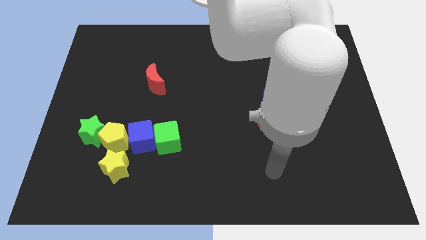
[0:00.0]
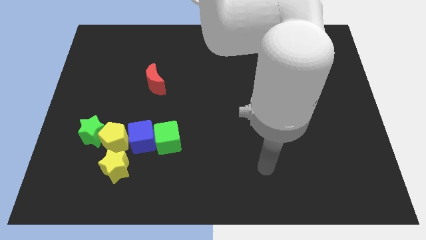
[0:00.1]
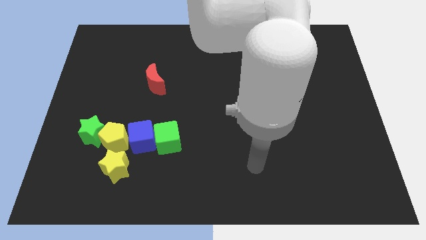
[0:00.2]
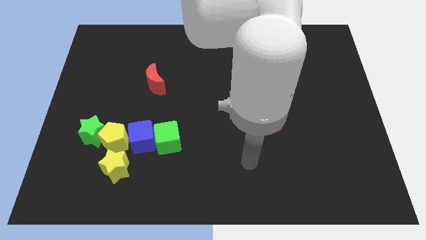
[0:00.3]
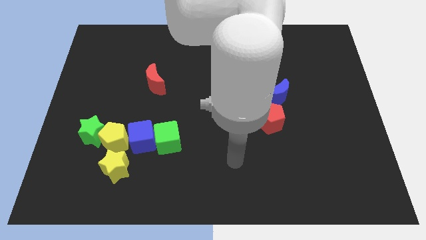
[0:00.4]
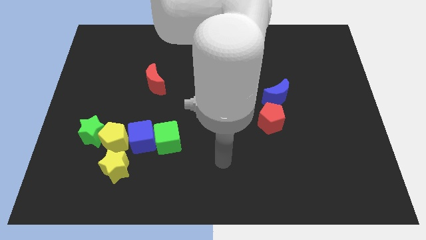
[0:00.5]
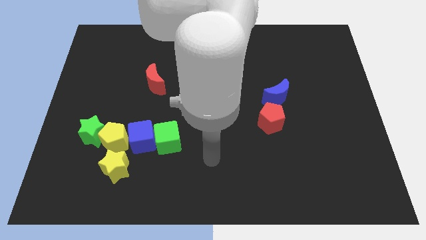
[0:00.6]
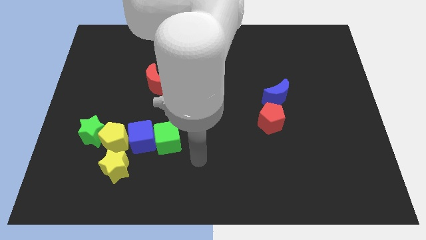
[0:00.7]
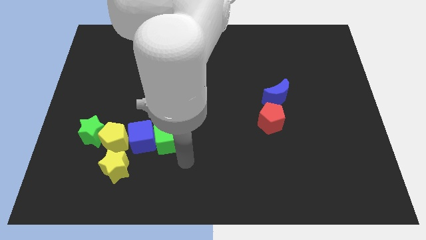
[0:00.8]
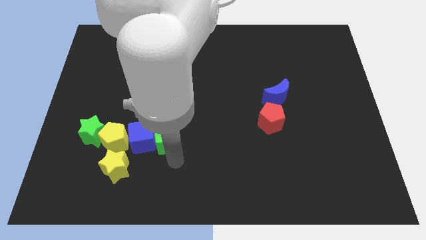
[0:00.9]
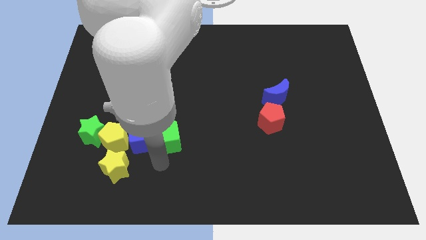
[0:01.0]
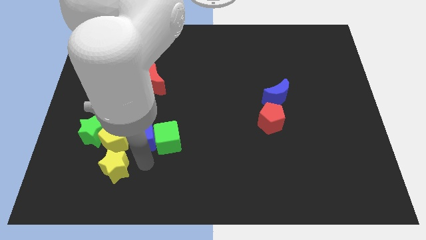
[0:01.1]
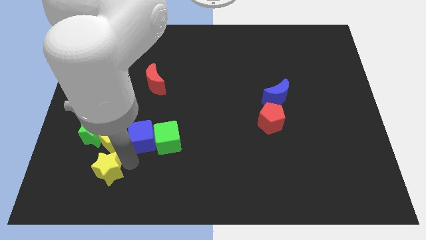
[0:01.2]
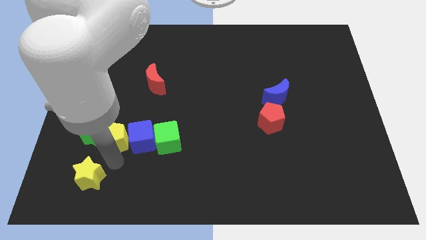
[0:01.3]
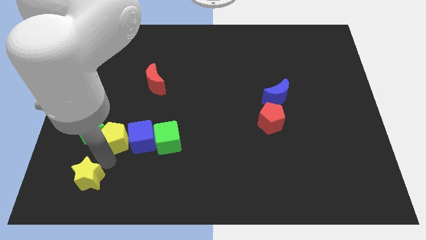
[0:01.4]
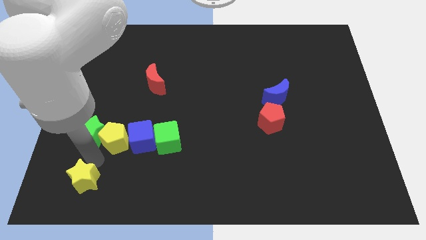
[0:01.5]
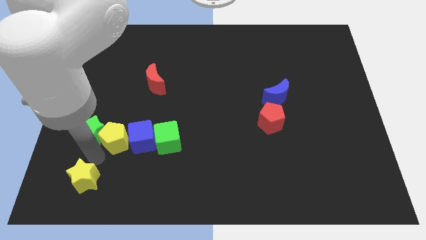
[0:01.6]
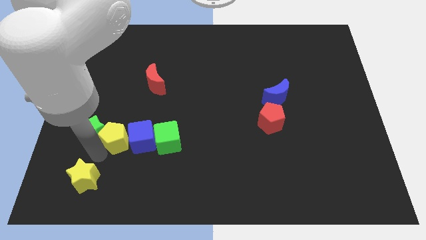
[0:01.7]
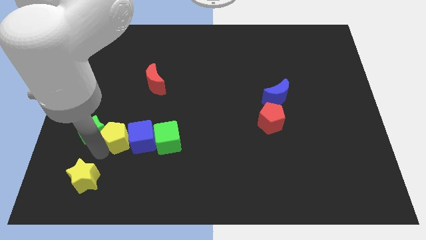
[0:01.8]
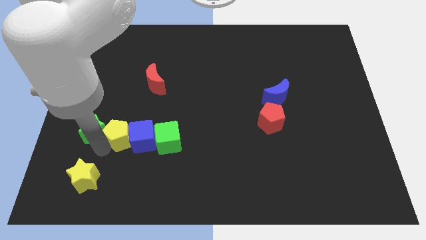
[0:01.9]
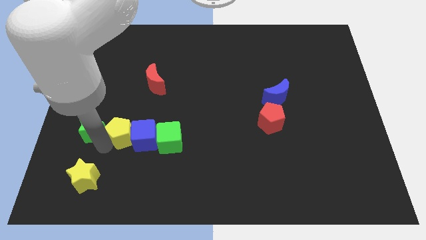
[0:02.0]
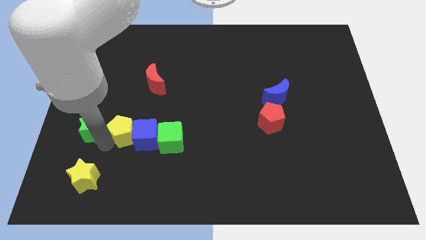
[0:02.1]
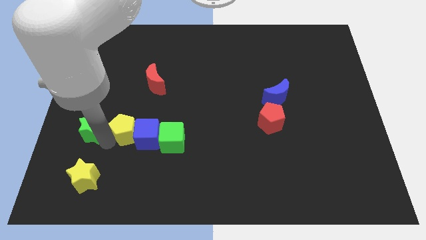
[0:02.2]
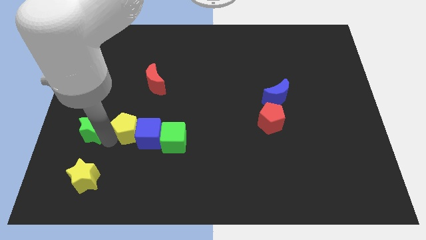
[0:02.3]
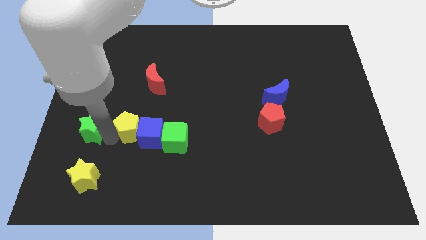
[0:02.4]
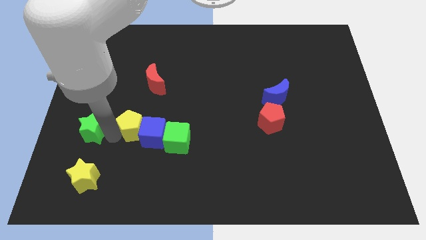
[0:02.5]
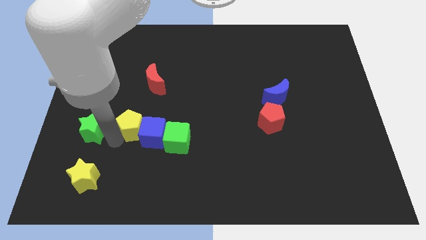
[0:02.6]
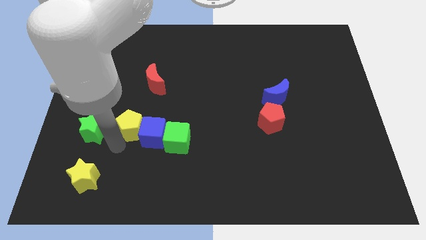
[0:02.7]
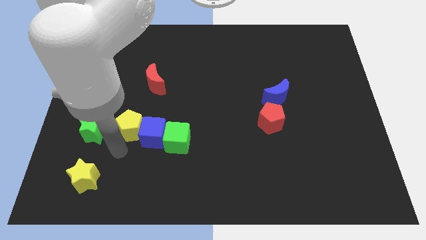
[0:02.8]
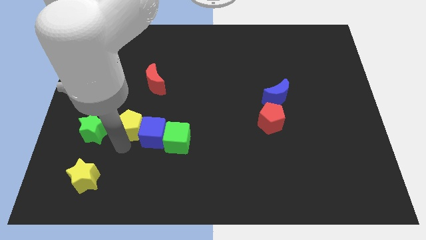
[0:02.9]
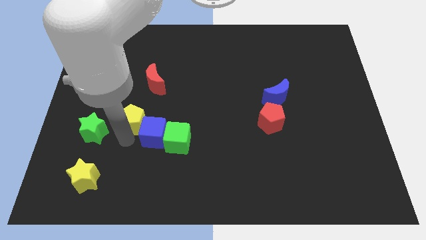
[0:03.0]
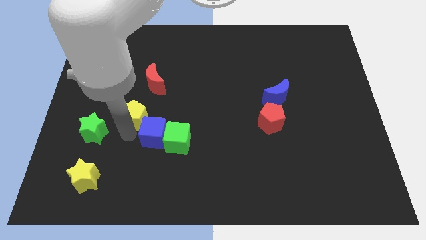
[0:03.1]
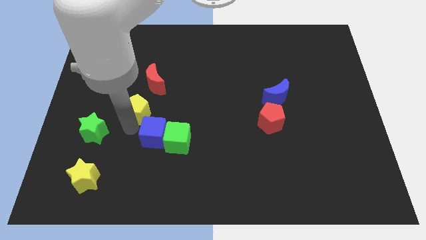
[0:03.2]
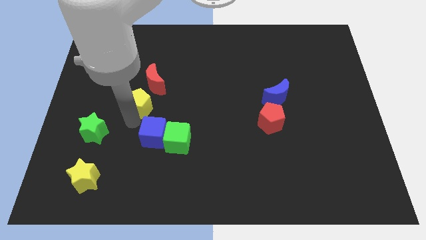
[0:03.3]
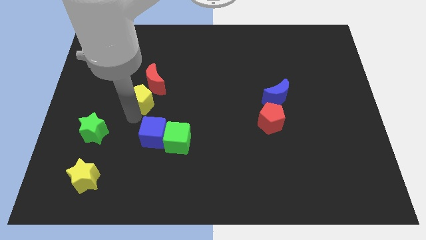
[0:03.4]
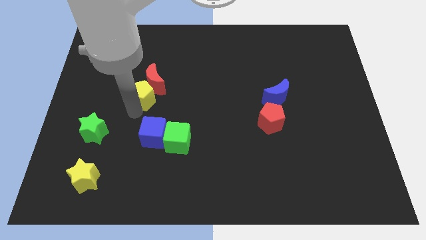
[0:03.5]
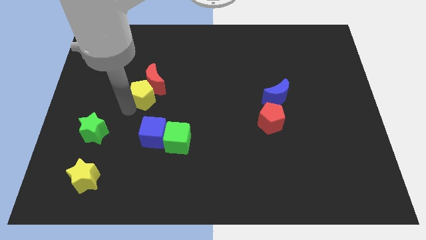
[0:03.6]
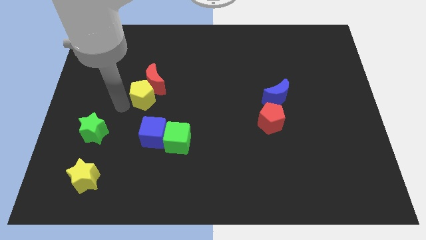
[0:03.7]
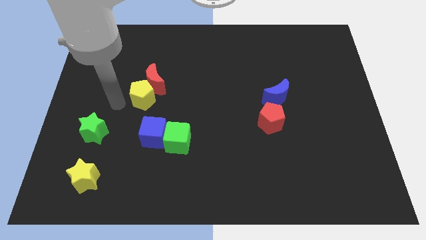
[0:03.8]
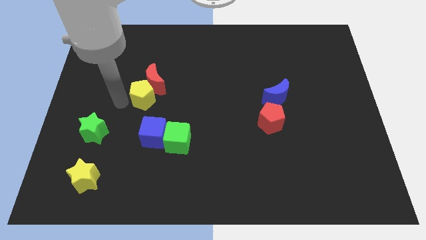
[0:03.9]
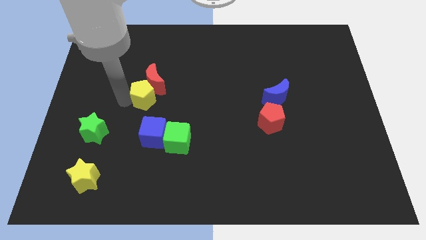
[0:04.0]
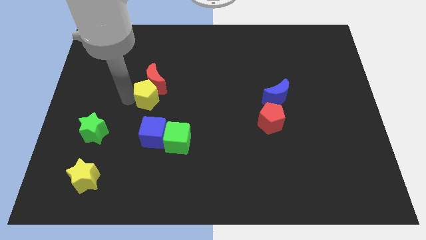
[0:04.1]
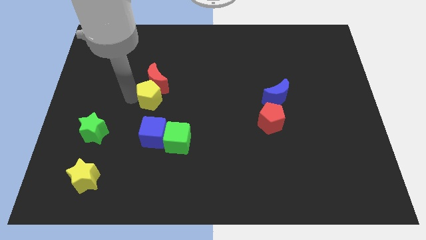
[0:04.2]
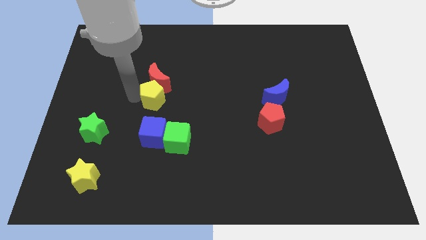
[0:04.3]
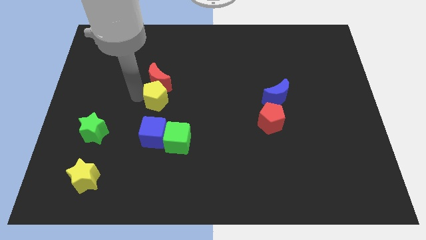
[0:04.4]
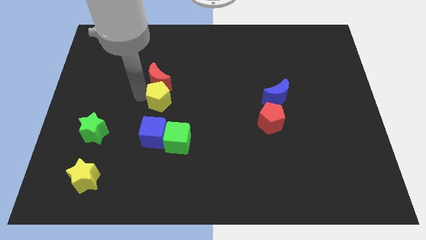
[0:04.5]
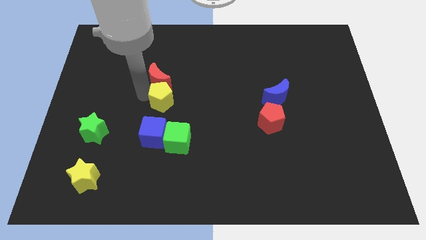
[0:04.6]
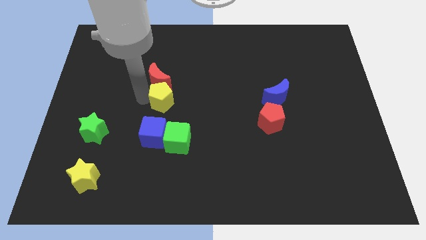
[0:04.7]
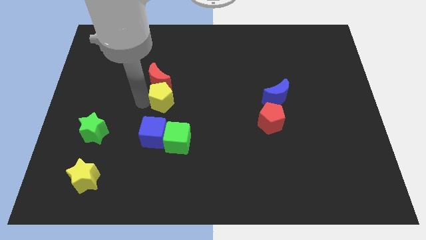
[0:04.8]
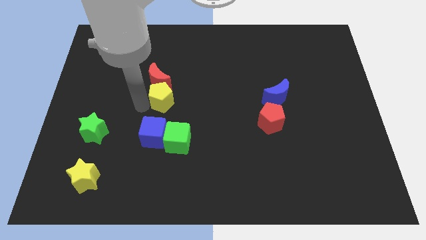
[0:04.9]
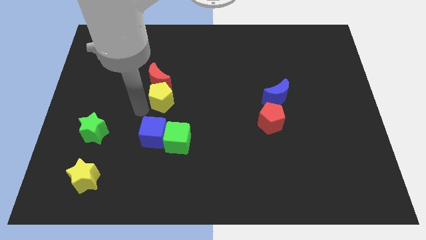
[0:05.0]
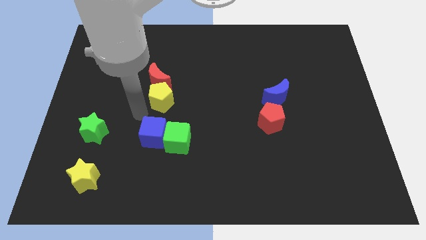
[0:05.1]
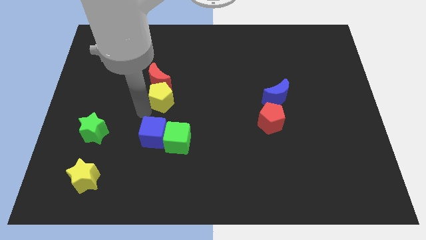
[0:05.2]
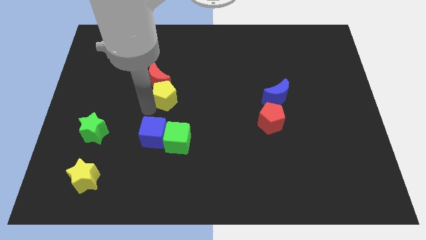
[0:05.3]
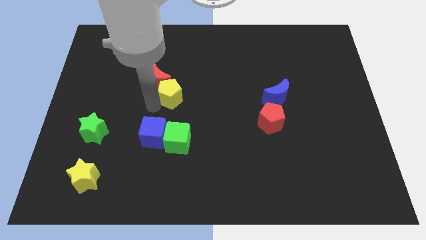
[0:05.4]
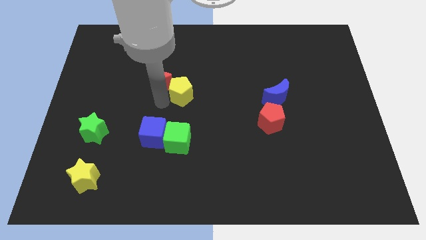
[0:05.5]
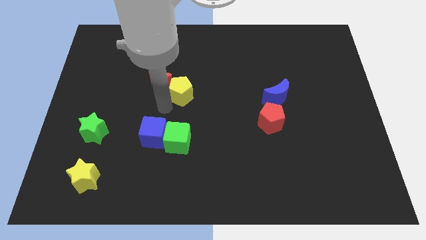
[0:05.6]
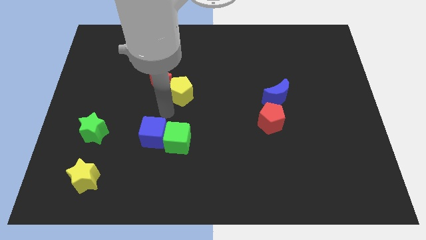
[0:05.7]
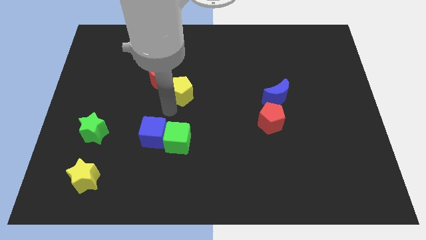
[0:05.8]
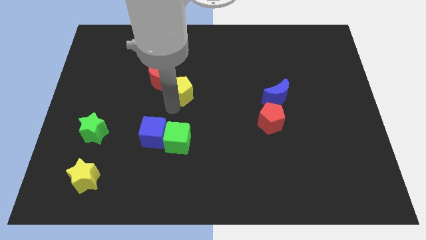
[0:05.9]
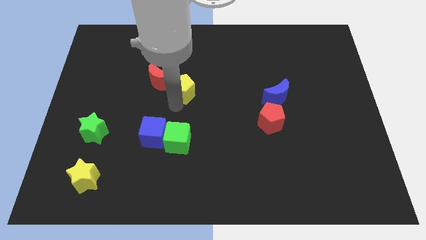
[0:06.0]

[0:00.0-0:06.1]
move the yellow pentagon upwards and to the right diagonally

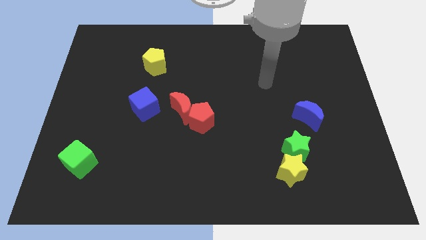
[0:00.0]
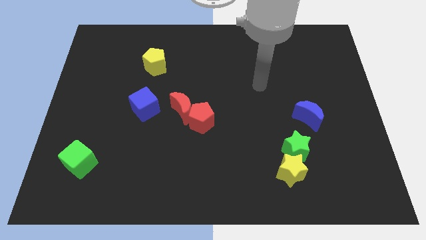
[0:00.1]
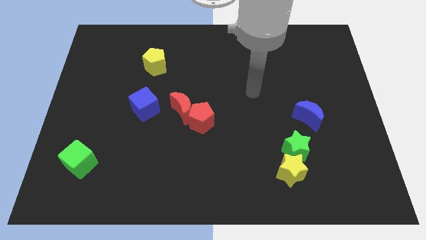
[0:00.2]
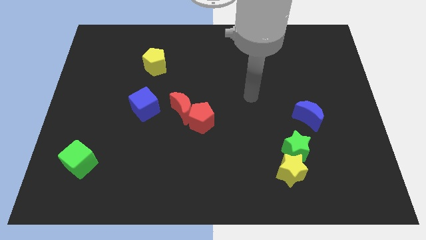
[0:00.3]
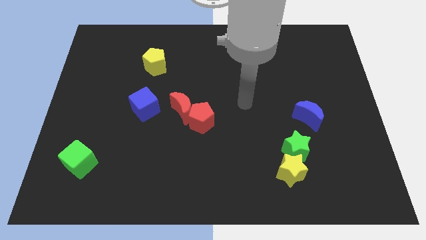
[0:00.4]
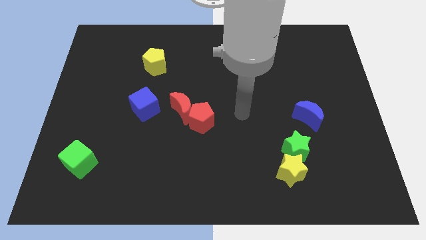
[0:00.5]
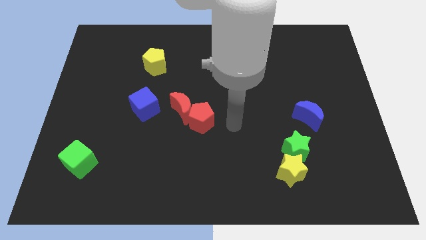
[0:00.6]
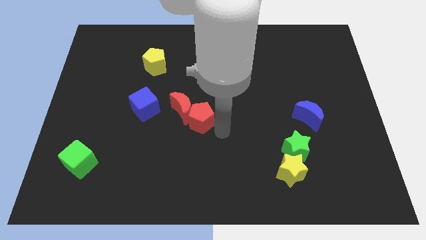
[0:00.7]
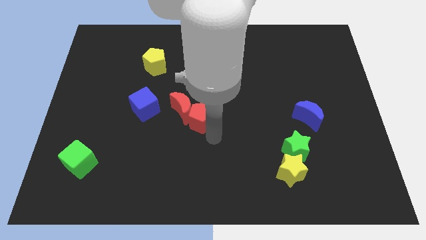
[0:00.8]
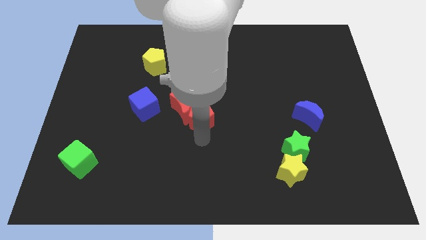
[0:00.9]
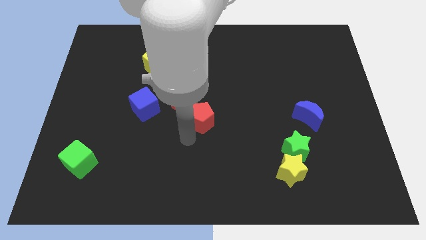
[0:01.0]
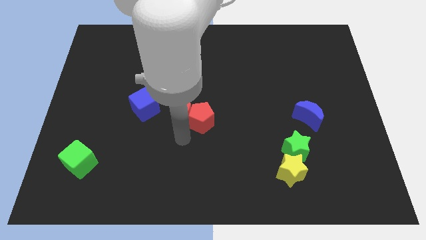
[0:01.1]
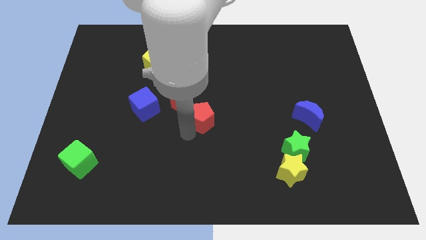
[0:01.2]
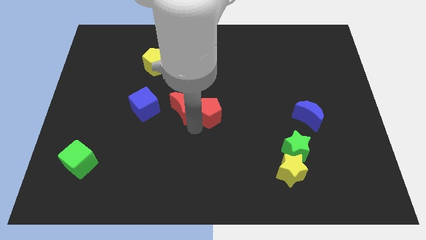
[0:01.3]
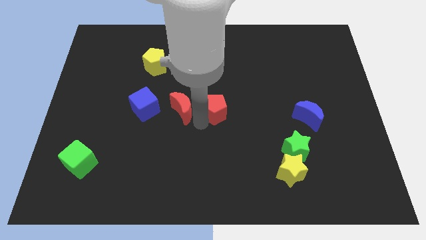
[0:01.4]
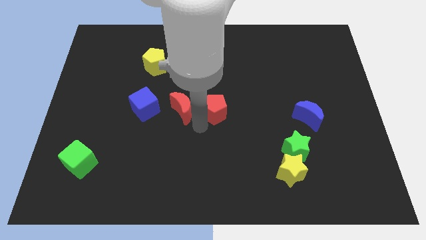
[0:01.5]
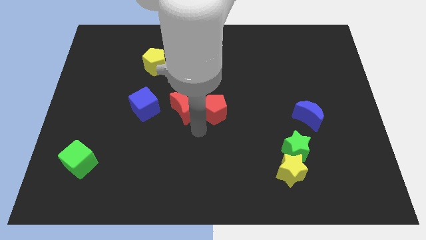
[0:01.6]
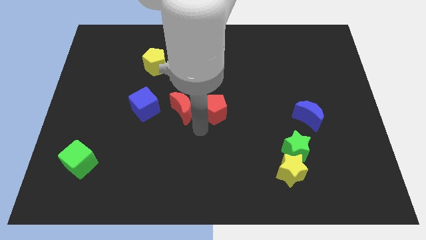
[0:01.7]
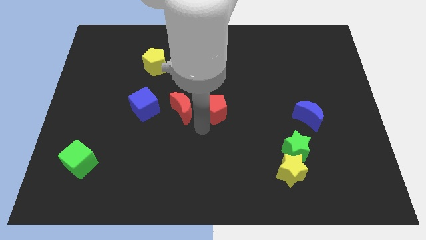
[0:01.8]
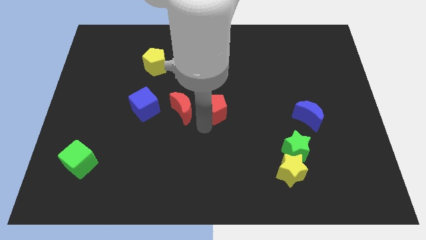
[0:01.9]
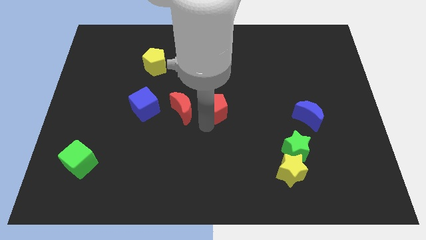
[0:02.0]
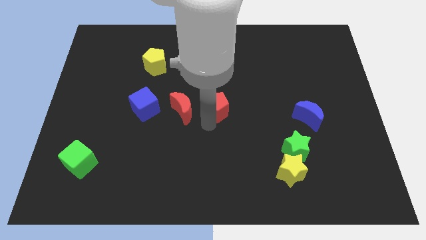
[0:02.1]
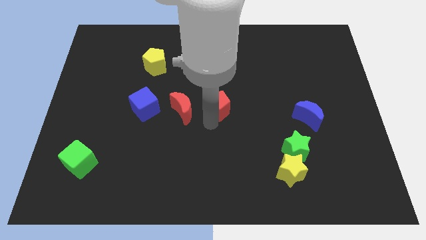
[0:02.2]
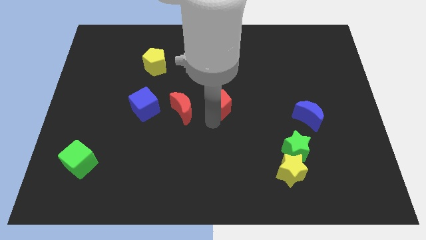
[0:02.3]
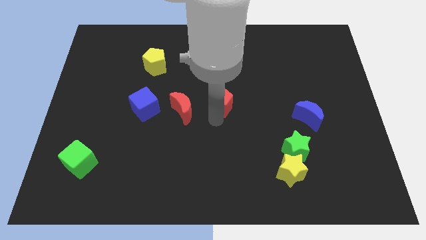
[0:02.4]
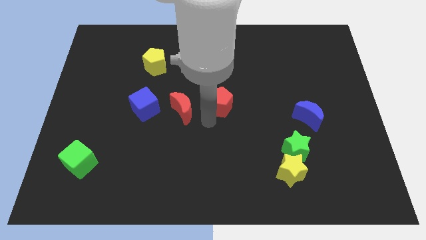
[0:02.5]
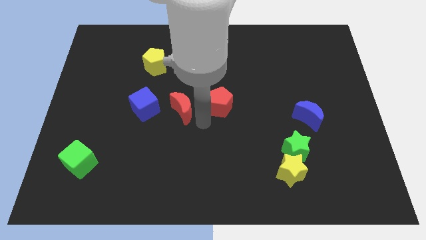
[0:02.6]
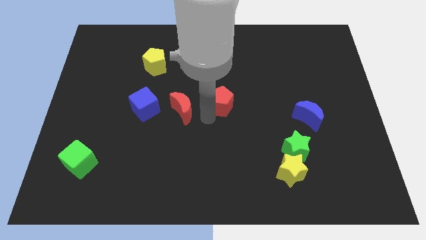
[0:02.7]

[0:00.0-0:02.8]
move the red pentagon a little up and right
